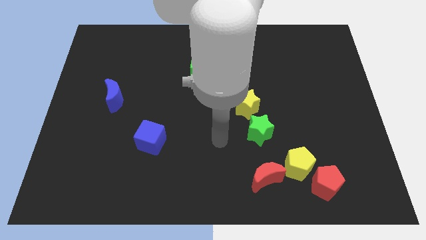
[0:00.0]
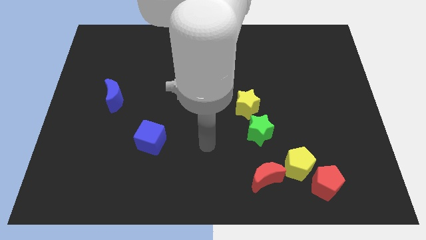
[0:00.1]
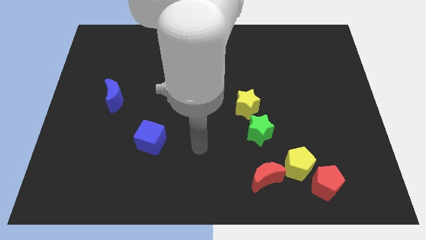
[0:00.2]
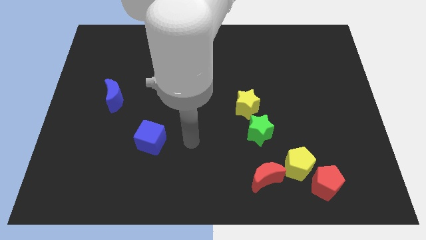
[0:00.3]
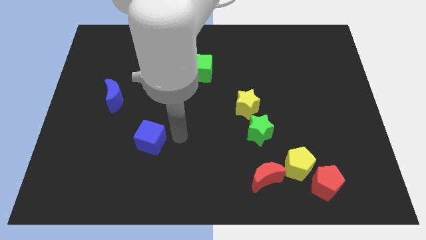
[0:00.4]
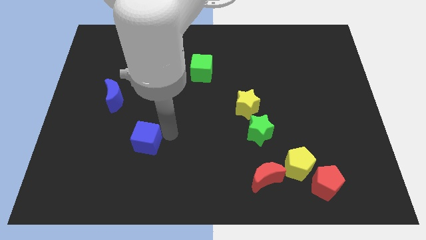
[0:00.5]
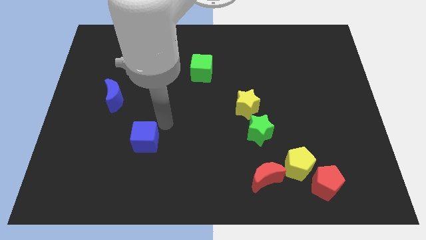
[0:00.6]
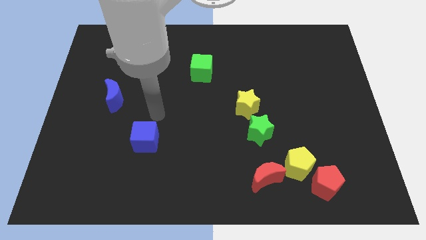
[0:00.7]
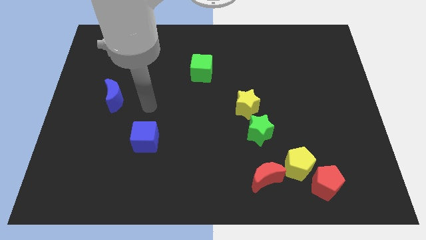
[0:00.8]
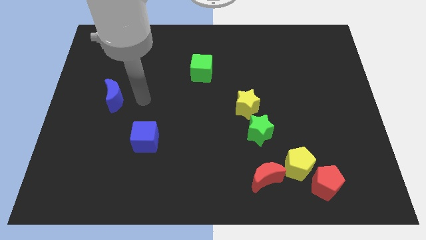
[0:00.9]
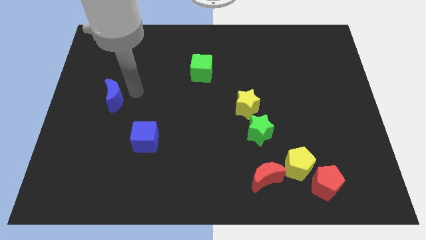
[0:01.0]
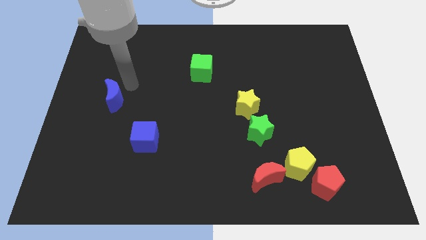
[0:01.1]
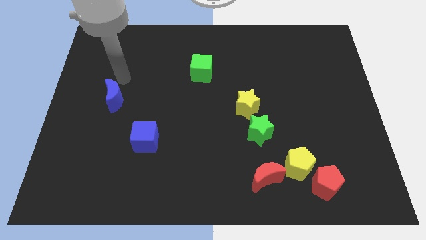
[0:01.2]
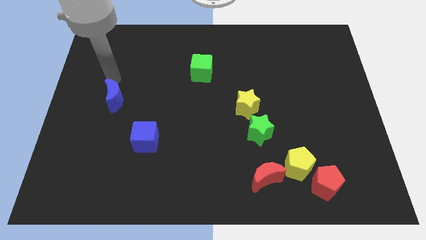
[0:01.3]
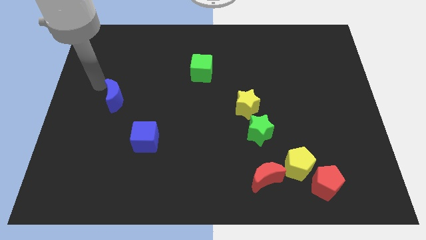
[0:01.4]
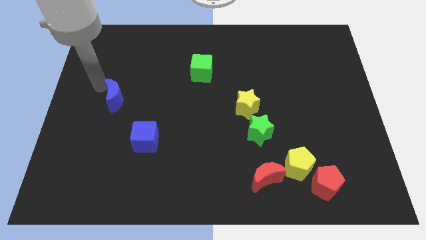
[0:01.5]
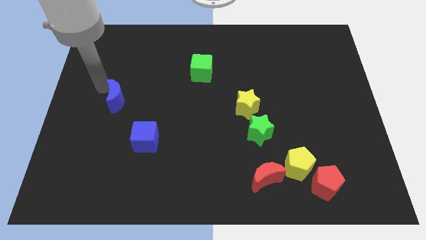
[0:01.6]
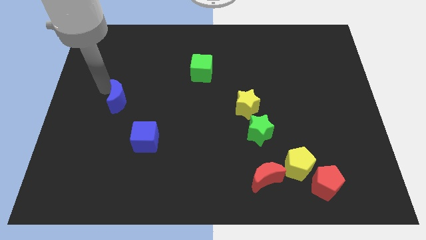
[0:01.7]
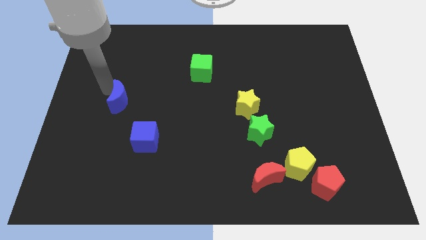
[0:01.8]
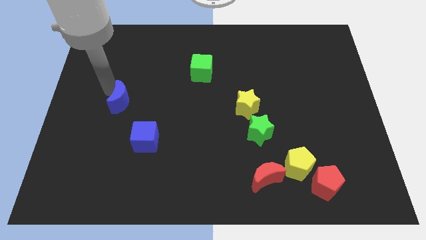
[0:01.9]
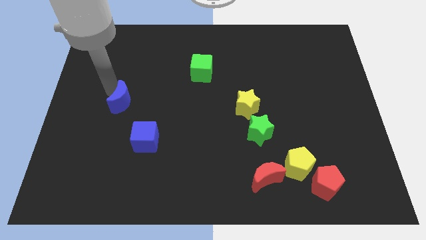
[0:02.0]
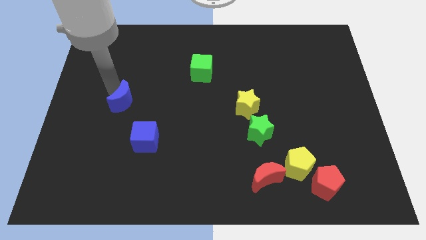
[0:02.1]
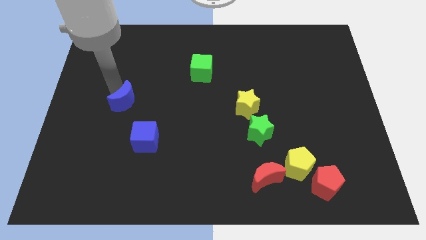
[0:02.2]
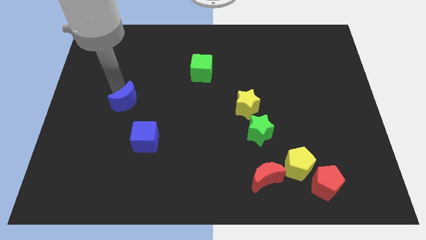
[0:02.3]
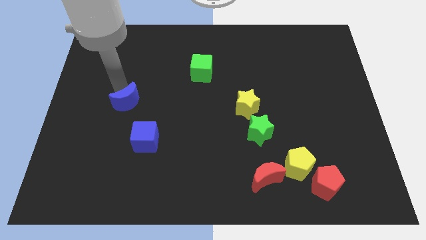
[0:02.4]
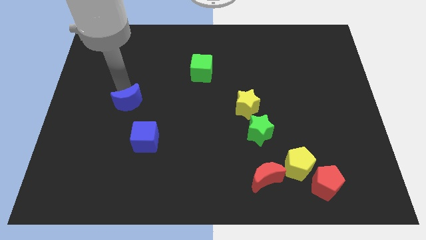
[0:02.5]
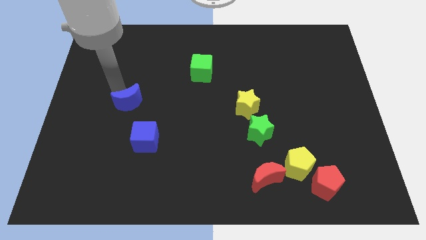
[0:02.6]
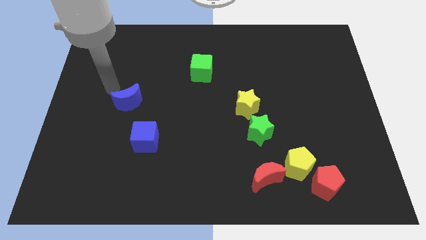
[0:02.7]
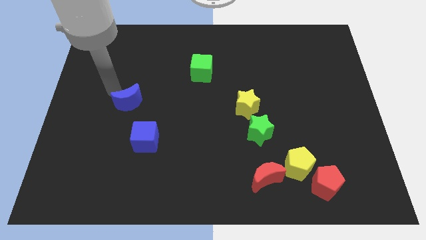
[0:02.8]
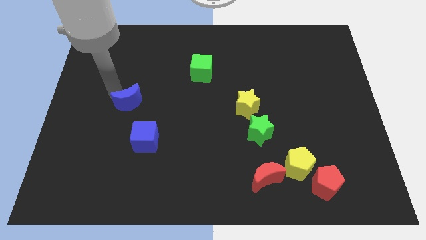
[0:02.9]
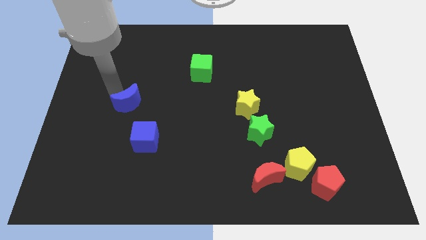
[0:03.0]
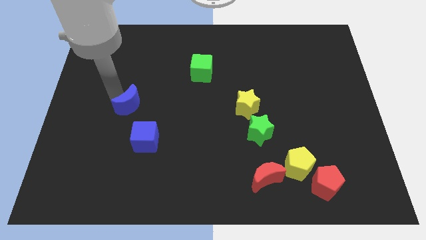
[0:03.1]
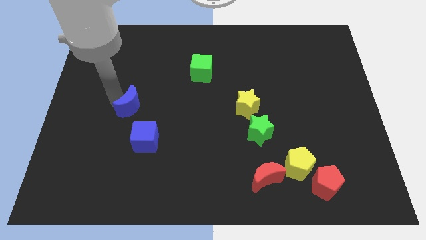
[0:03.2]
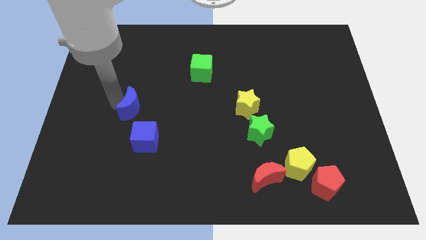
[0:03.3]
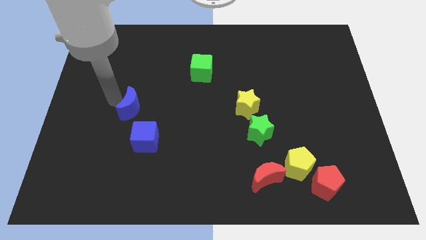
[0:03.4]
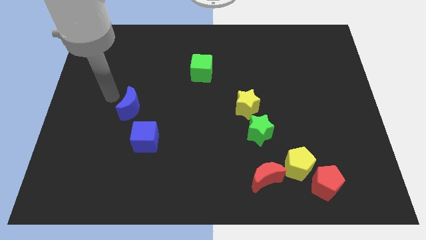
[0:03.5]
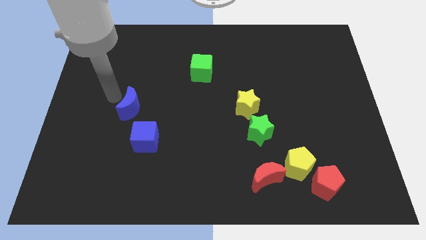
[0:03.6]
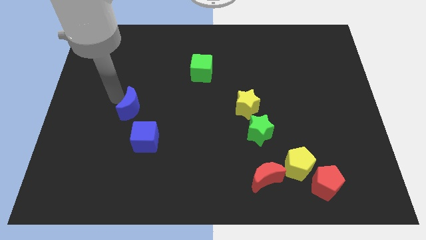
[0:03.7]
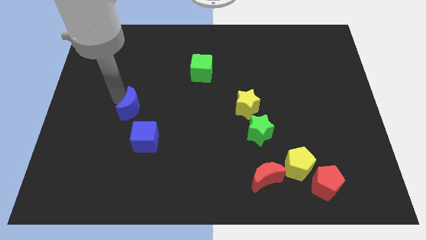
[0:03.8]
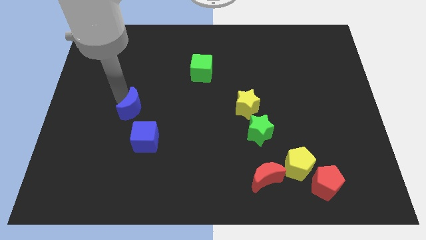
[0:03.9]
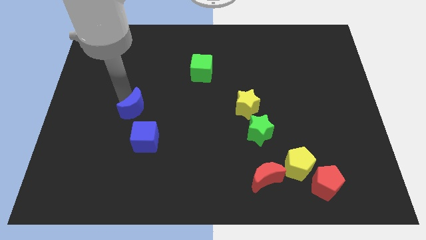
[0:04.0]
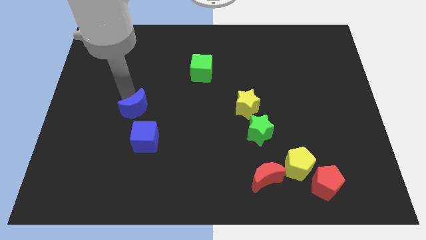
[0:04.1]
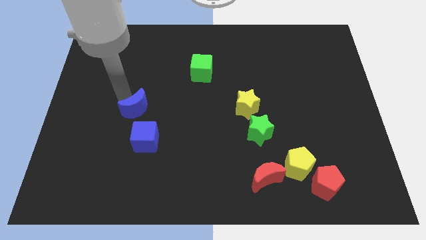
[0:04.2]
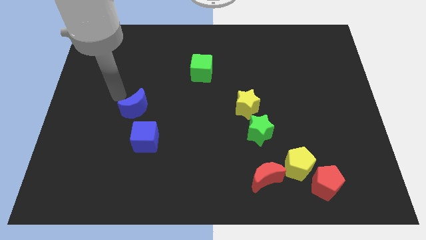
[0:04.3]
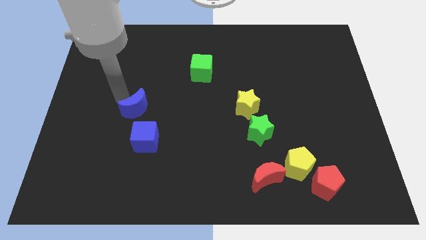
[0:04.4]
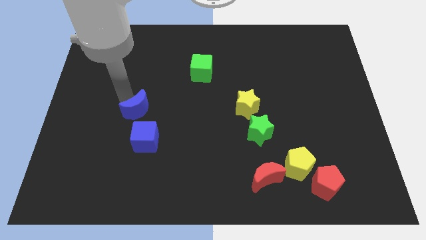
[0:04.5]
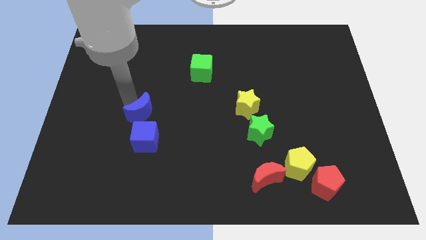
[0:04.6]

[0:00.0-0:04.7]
push the blue moon a little downwards and then right

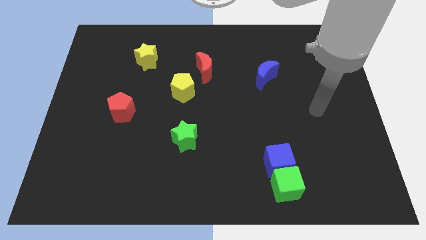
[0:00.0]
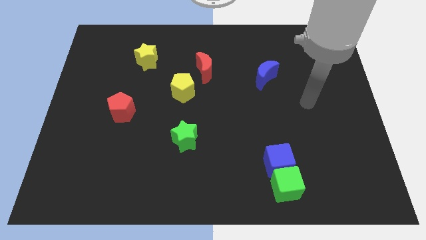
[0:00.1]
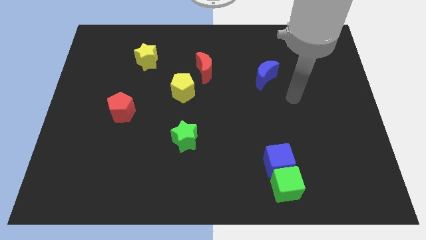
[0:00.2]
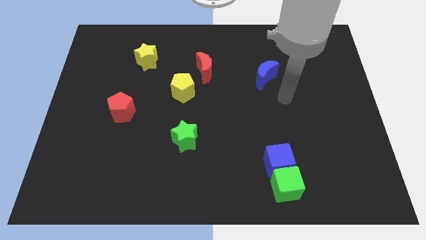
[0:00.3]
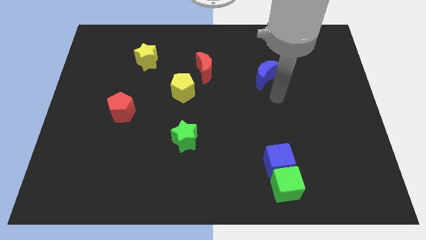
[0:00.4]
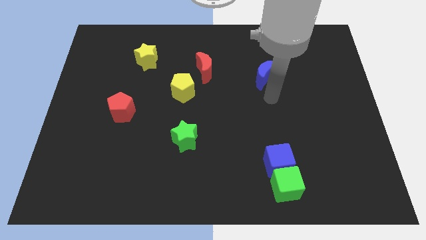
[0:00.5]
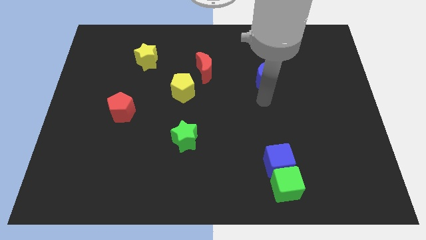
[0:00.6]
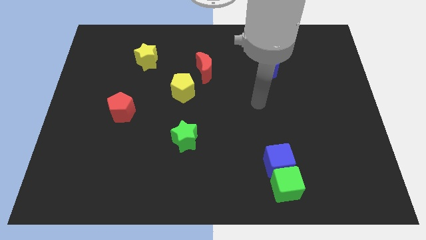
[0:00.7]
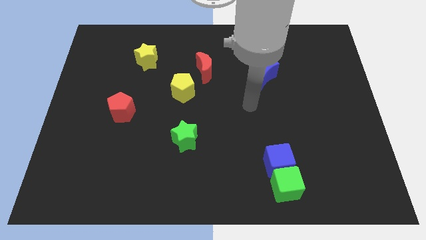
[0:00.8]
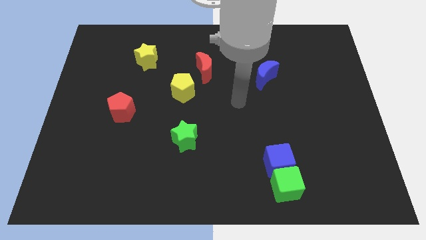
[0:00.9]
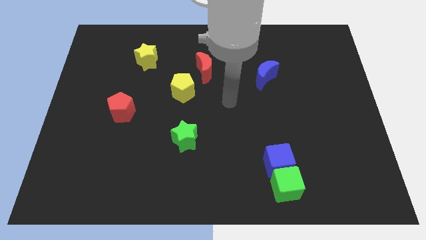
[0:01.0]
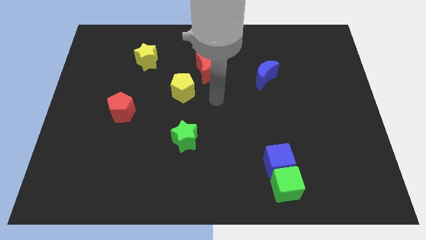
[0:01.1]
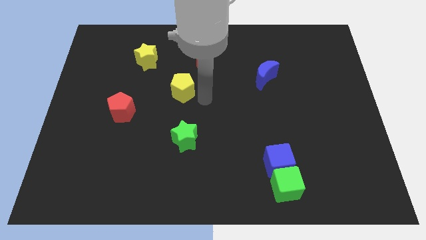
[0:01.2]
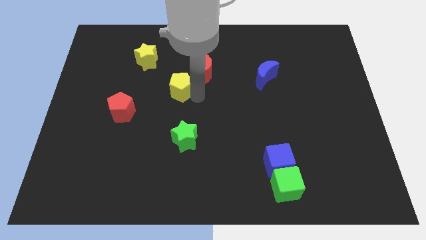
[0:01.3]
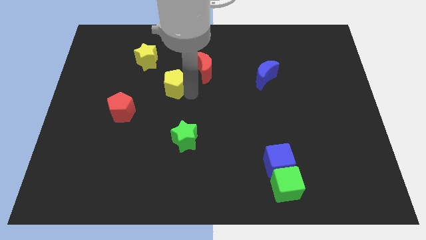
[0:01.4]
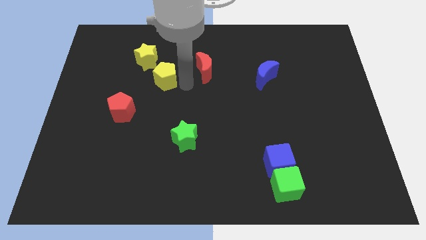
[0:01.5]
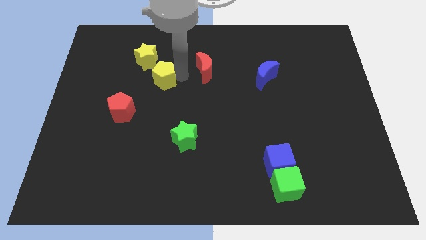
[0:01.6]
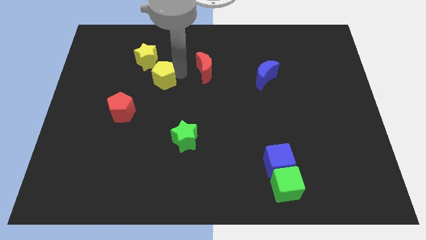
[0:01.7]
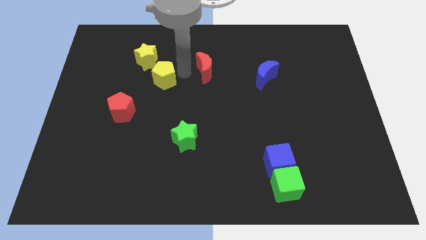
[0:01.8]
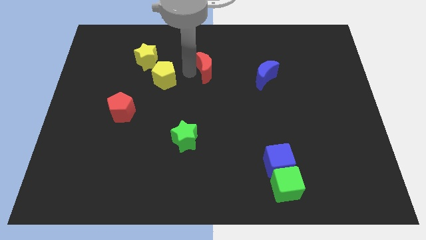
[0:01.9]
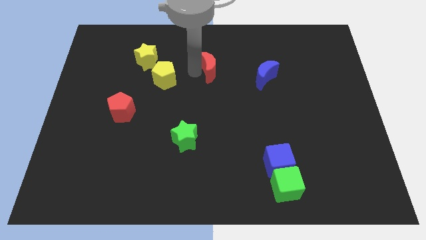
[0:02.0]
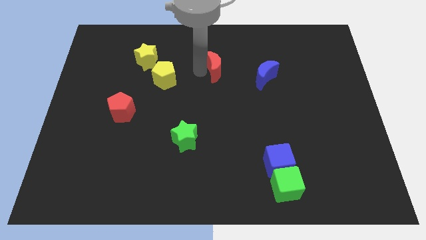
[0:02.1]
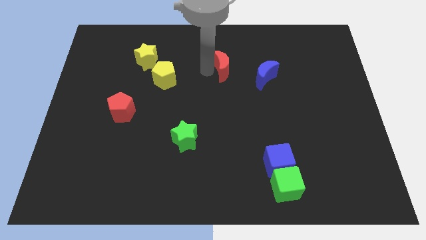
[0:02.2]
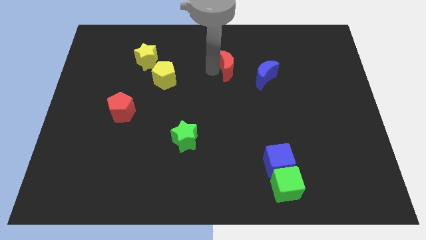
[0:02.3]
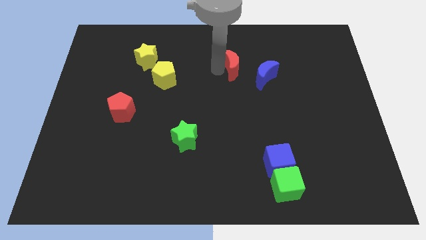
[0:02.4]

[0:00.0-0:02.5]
slide the red moon to the right slightly

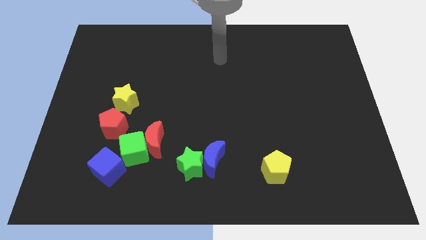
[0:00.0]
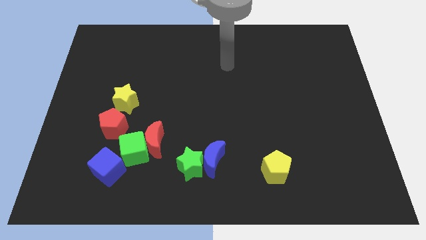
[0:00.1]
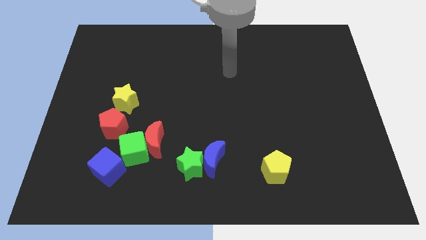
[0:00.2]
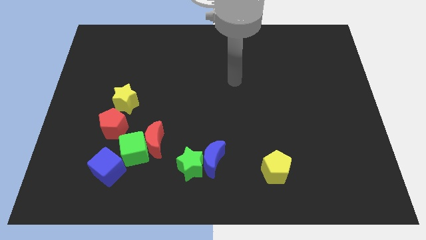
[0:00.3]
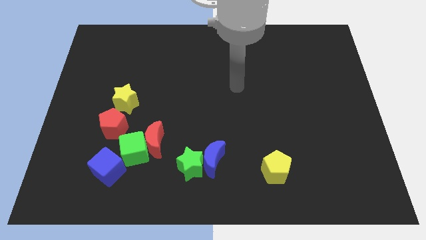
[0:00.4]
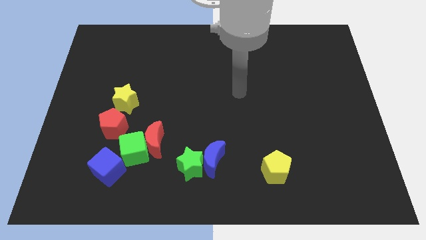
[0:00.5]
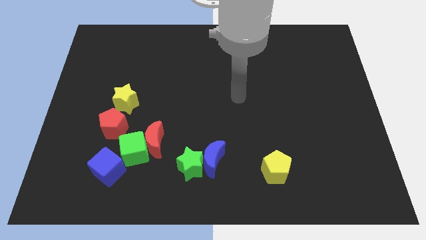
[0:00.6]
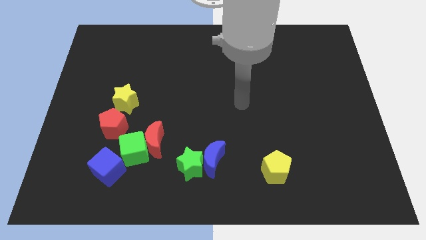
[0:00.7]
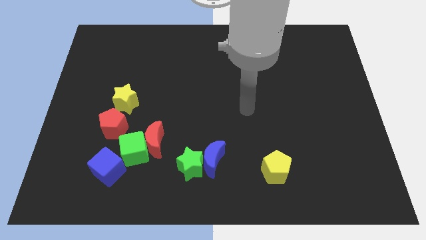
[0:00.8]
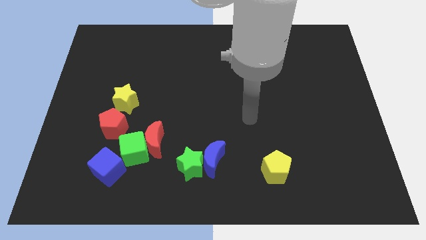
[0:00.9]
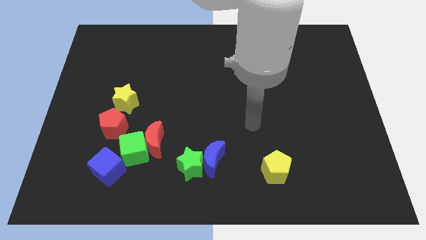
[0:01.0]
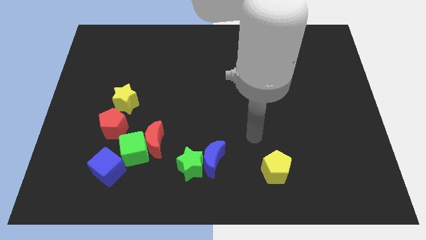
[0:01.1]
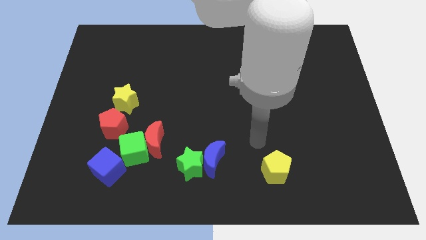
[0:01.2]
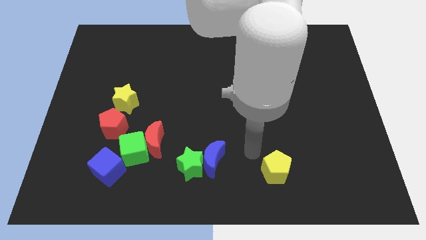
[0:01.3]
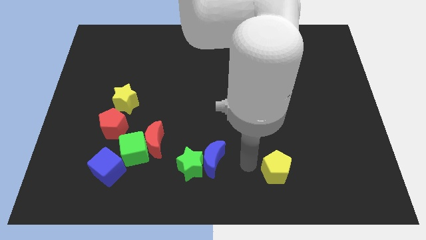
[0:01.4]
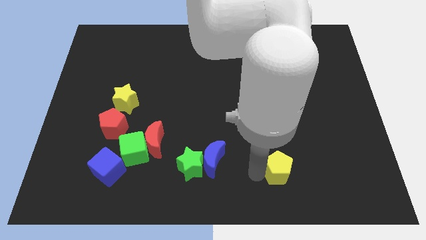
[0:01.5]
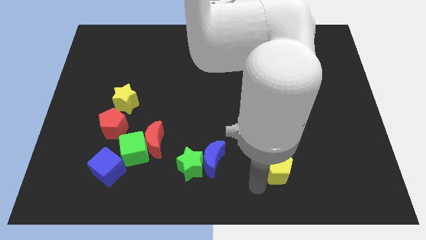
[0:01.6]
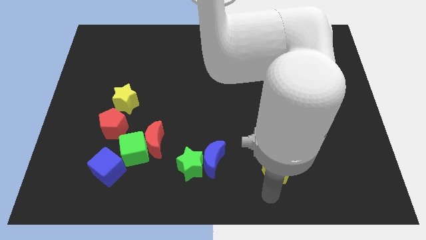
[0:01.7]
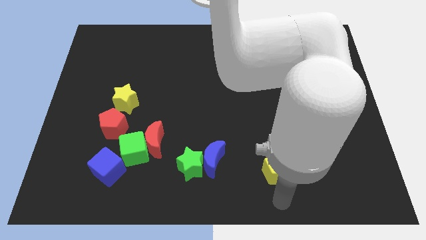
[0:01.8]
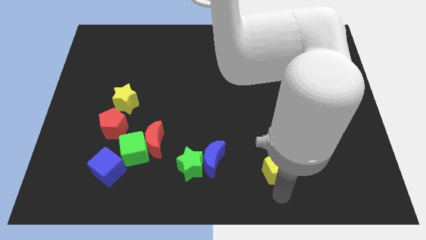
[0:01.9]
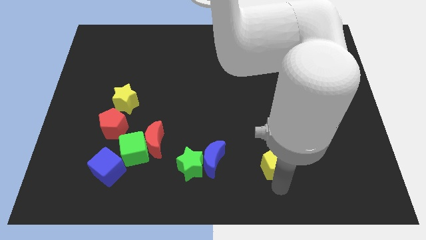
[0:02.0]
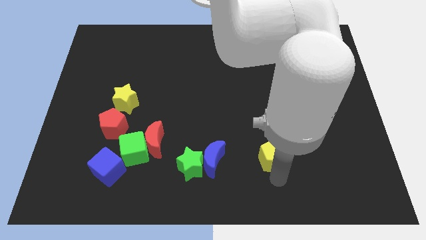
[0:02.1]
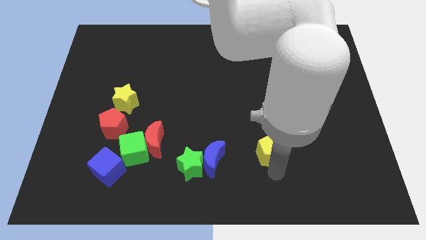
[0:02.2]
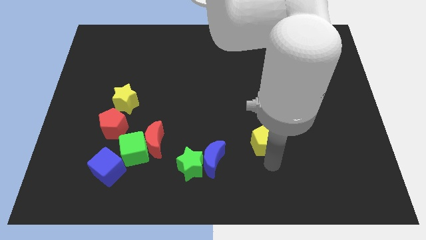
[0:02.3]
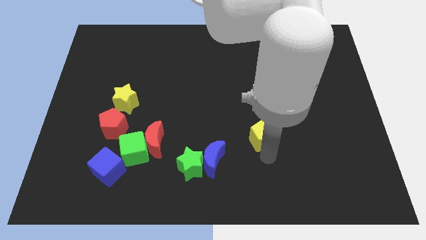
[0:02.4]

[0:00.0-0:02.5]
push the yellow pentagon up a little bit
